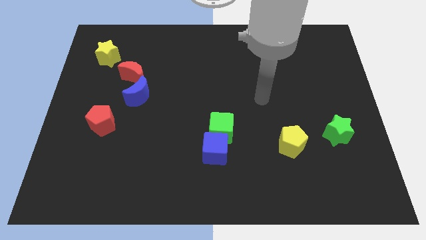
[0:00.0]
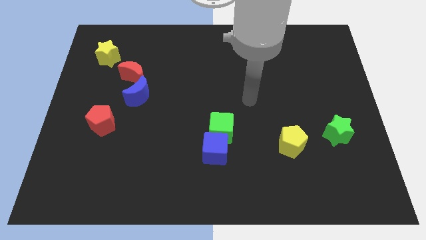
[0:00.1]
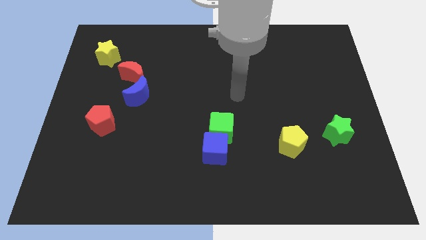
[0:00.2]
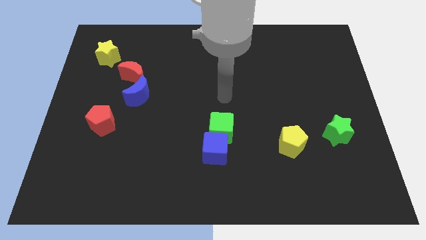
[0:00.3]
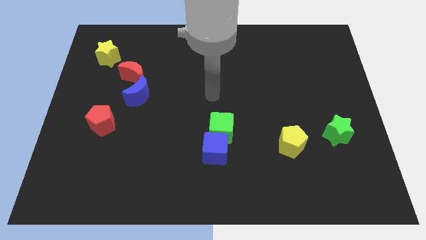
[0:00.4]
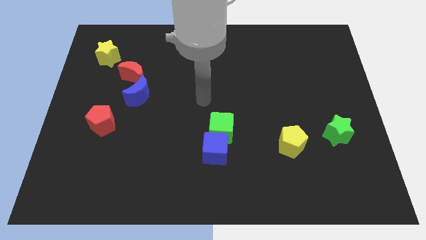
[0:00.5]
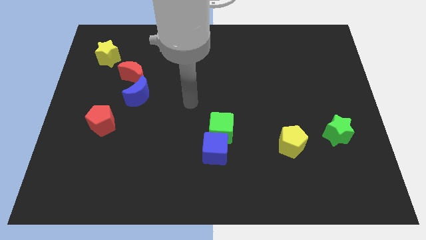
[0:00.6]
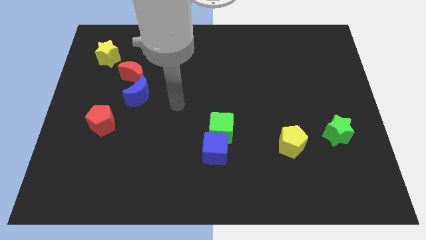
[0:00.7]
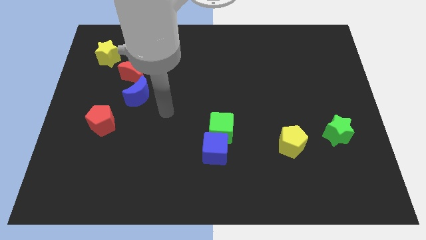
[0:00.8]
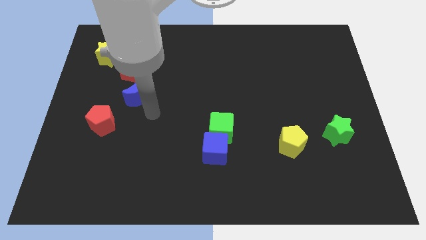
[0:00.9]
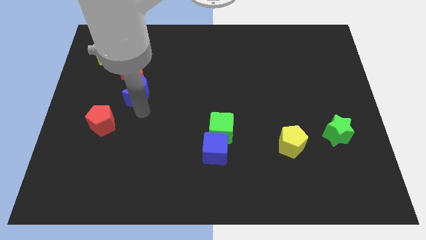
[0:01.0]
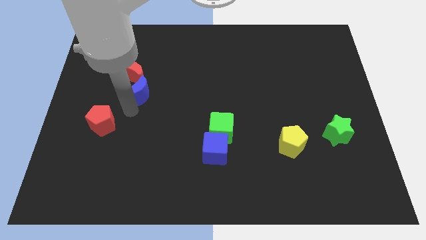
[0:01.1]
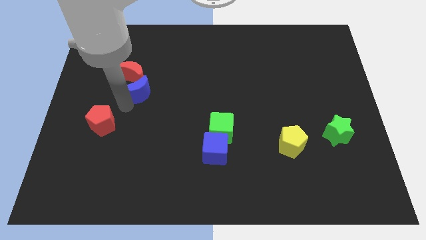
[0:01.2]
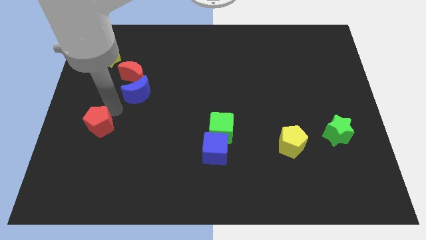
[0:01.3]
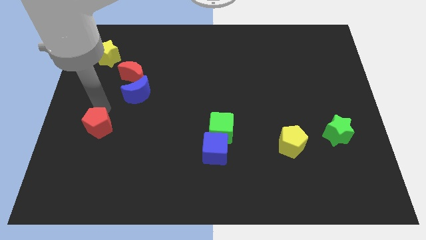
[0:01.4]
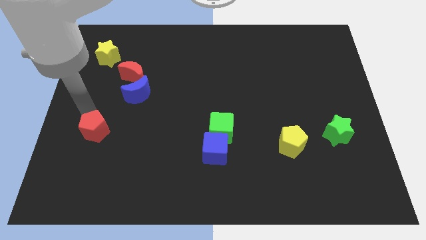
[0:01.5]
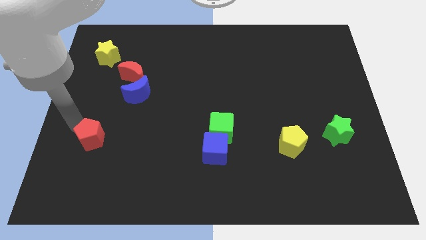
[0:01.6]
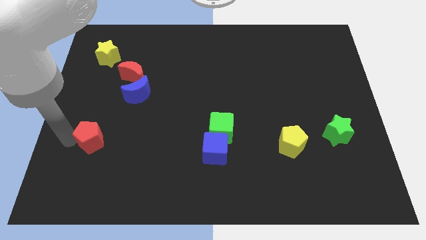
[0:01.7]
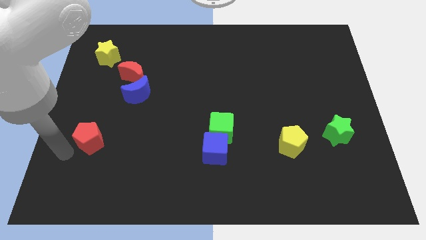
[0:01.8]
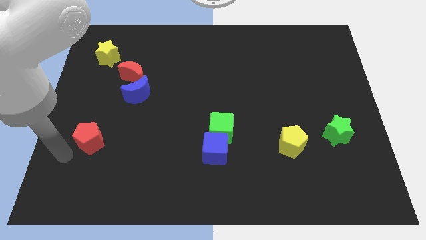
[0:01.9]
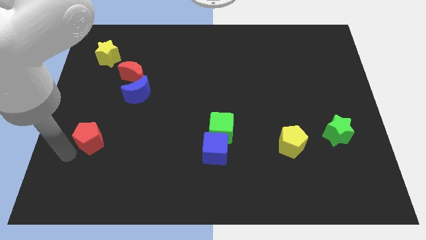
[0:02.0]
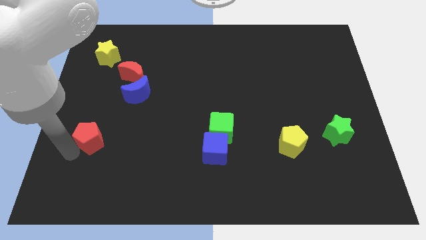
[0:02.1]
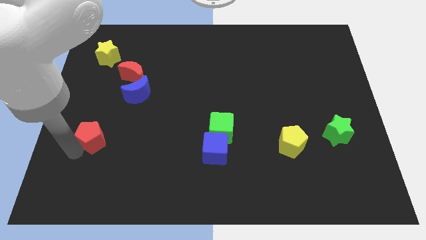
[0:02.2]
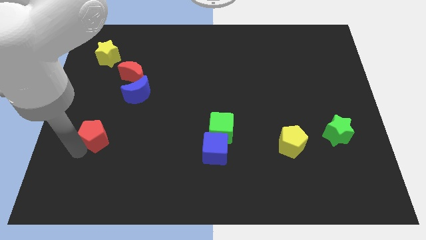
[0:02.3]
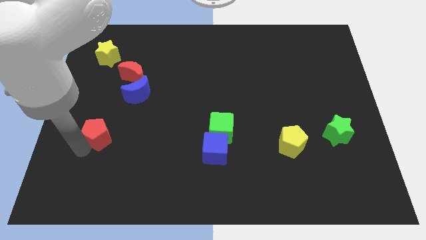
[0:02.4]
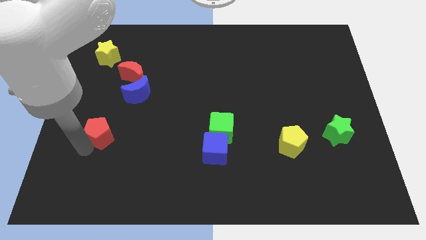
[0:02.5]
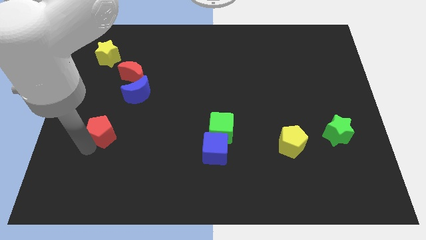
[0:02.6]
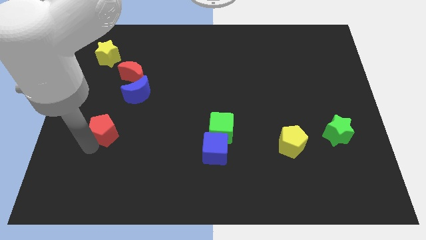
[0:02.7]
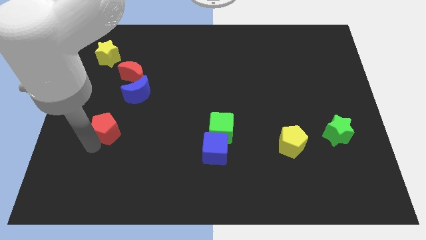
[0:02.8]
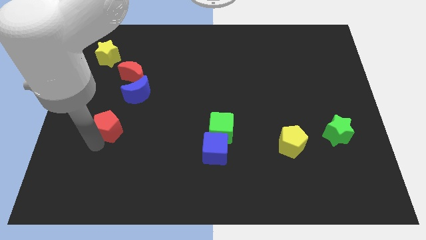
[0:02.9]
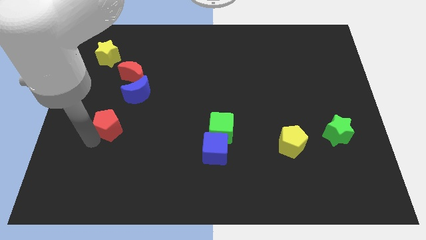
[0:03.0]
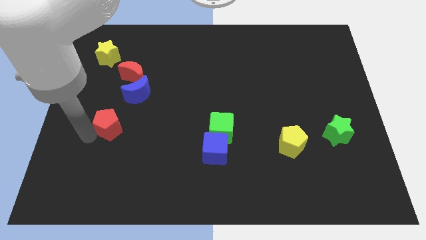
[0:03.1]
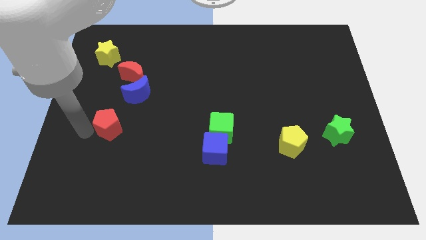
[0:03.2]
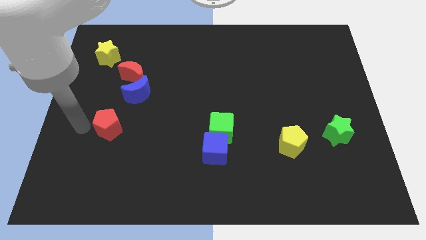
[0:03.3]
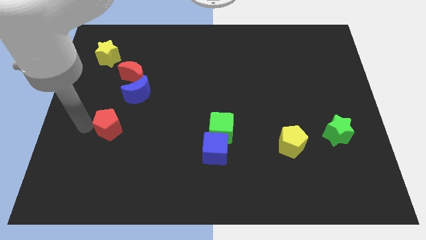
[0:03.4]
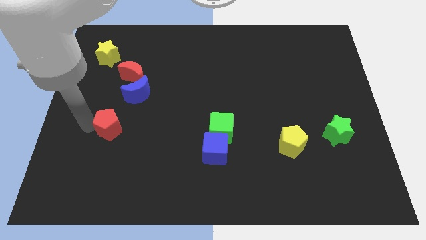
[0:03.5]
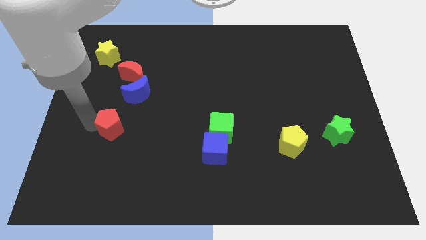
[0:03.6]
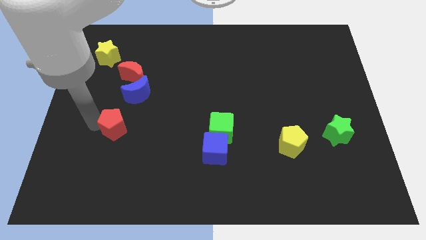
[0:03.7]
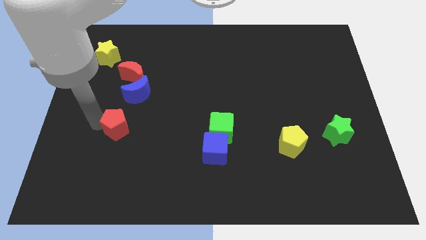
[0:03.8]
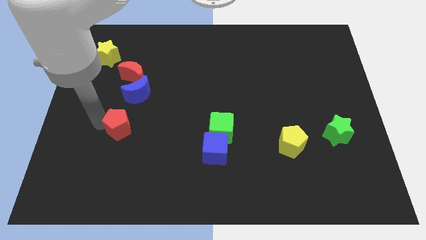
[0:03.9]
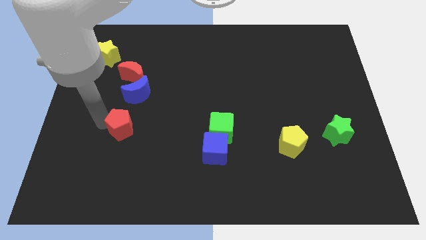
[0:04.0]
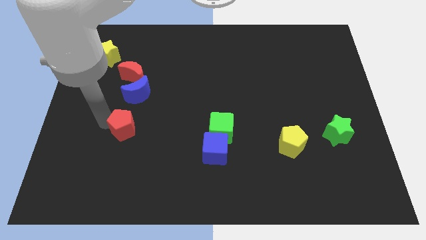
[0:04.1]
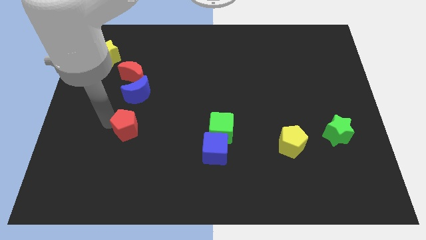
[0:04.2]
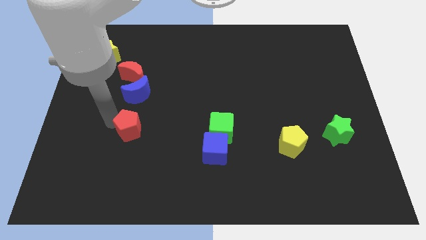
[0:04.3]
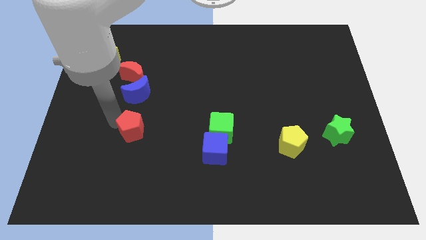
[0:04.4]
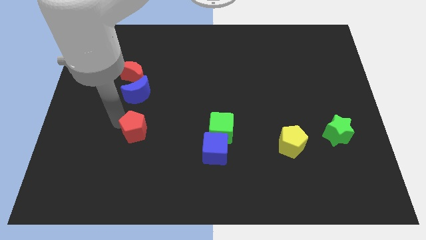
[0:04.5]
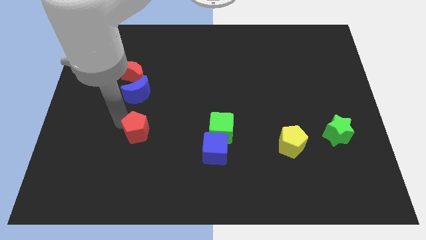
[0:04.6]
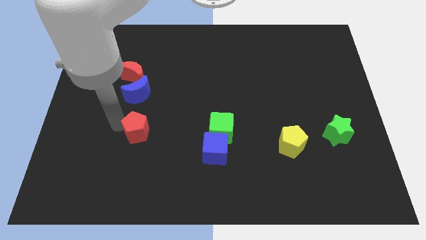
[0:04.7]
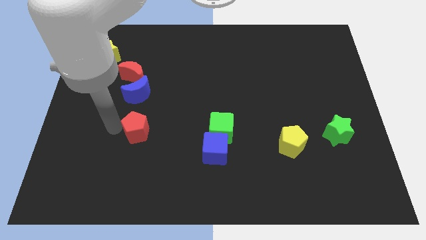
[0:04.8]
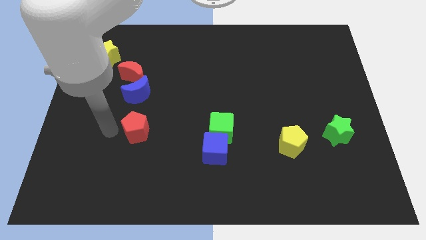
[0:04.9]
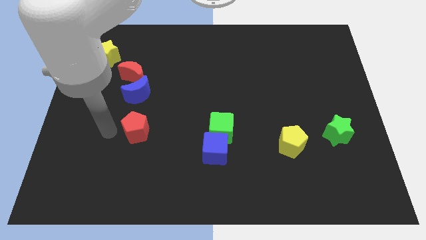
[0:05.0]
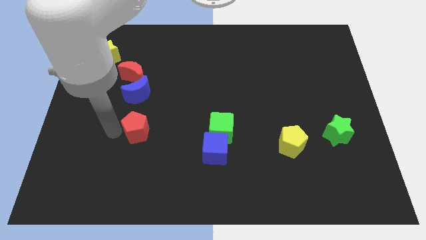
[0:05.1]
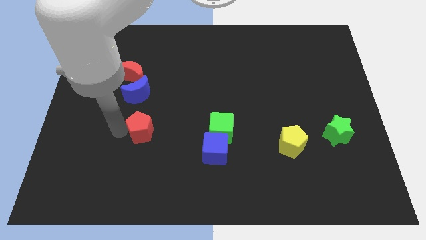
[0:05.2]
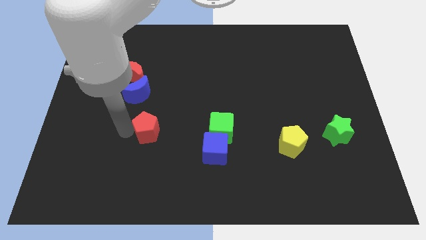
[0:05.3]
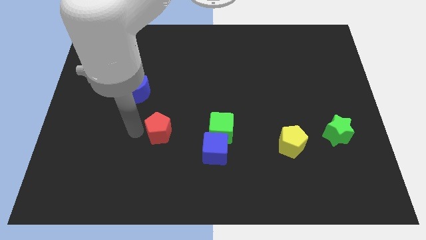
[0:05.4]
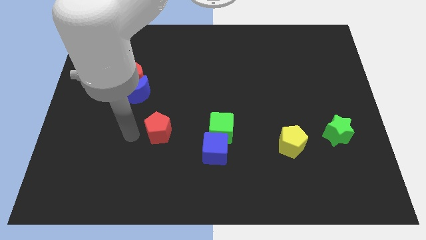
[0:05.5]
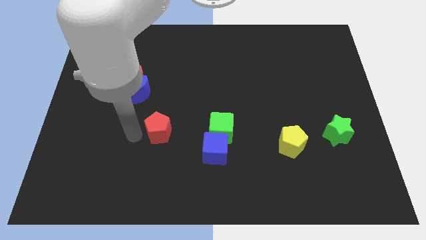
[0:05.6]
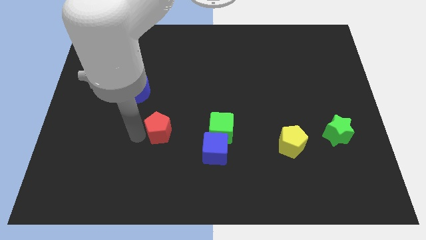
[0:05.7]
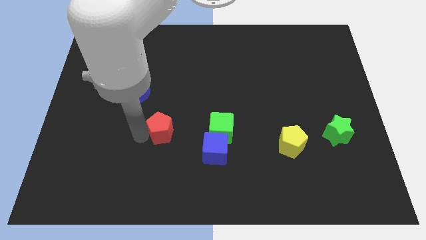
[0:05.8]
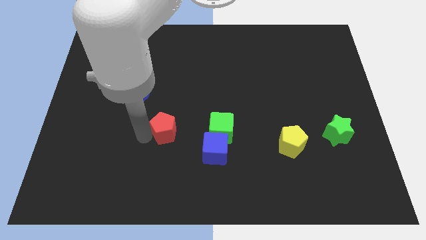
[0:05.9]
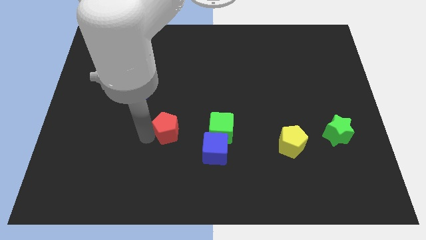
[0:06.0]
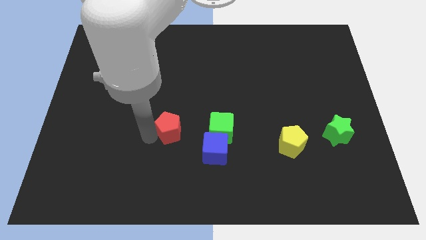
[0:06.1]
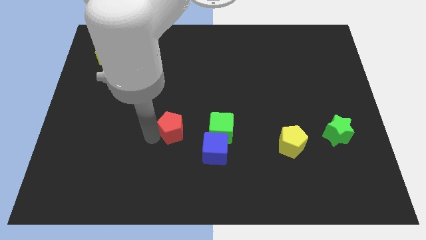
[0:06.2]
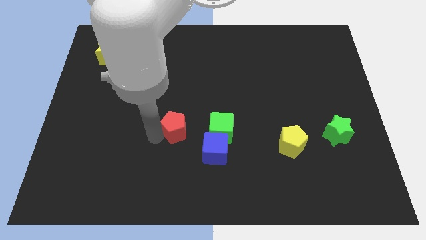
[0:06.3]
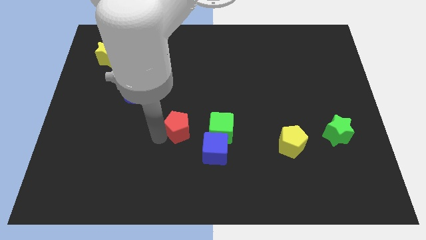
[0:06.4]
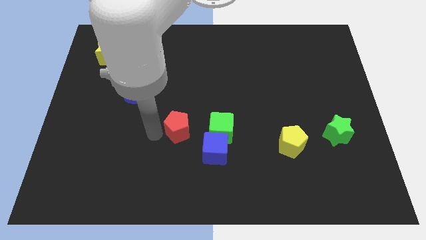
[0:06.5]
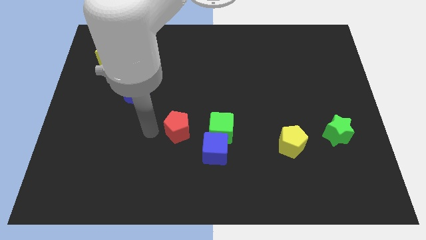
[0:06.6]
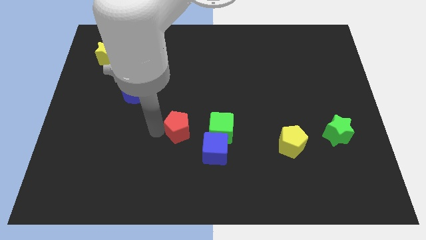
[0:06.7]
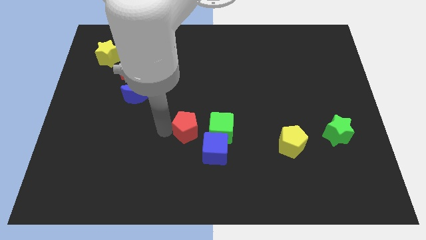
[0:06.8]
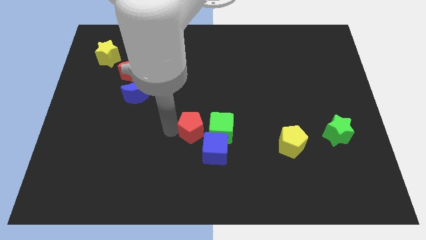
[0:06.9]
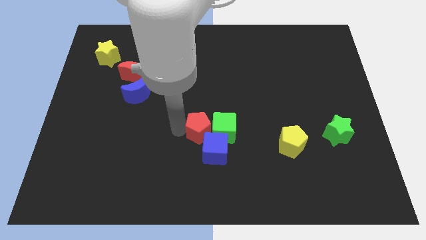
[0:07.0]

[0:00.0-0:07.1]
move the red pentagon next to the green cube

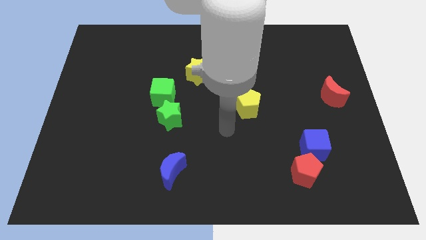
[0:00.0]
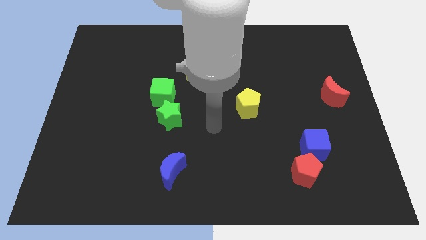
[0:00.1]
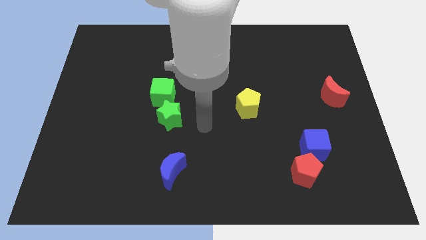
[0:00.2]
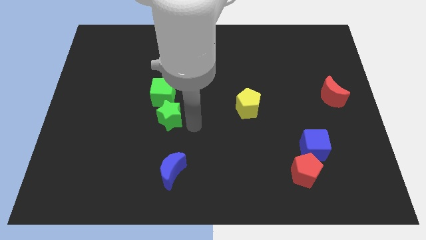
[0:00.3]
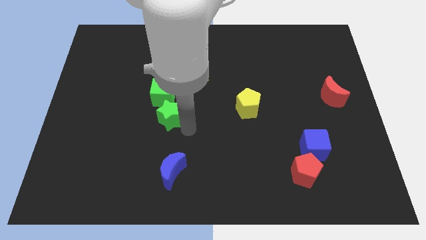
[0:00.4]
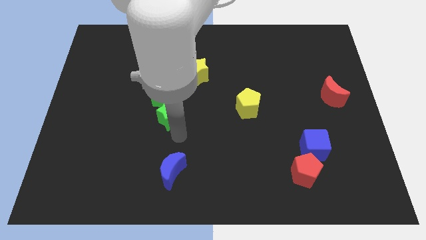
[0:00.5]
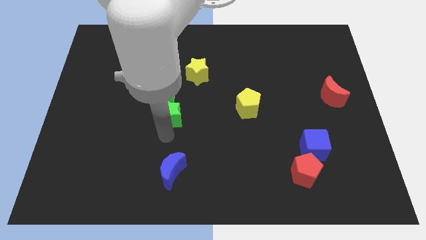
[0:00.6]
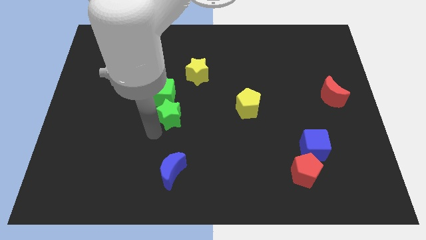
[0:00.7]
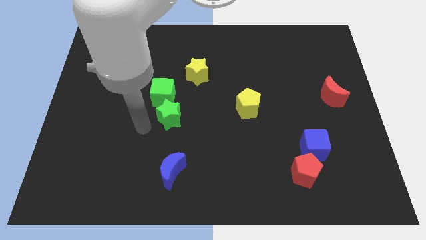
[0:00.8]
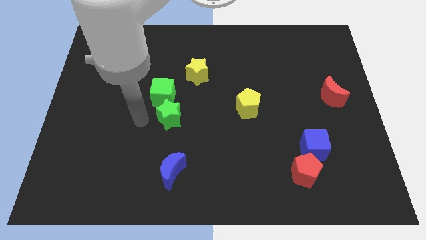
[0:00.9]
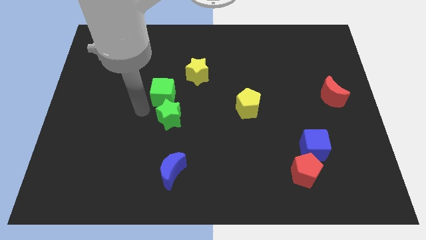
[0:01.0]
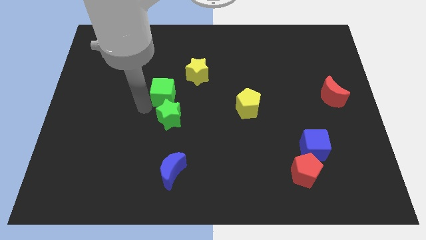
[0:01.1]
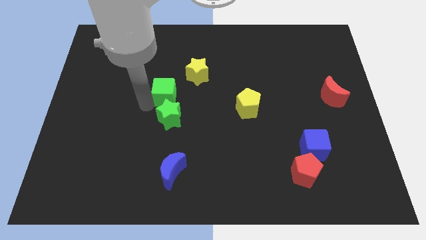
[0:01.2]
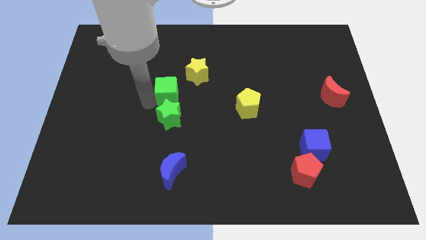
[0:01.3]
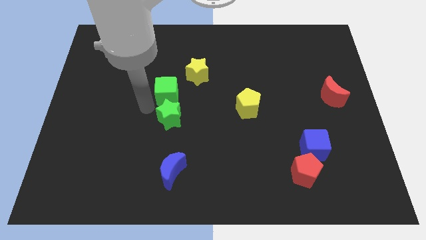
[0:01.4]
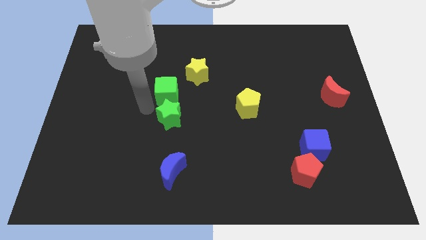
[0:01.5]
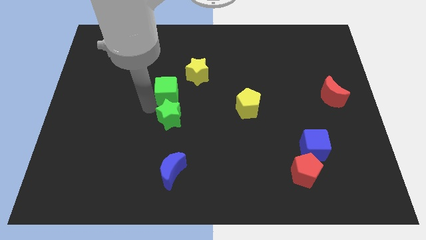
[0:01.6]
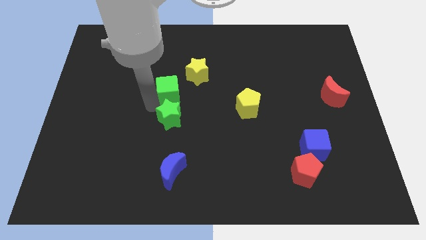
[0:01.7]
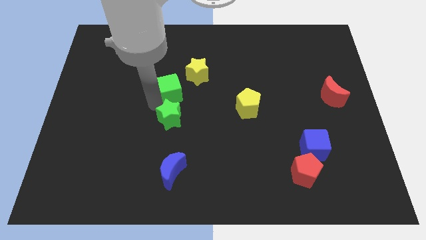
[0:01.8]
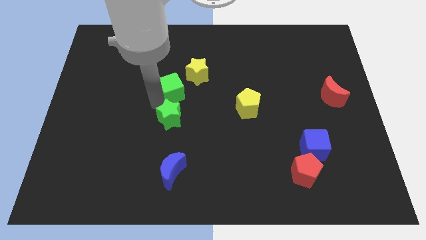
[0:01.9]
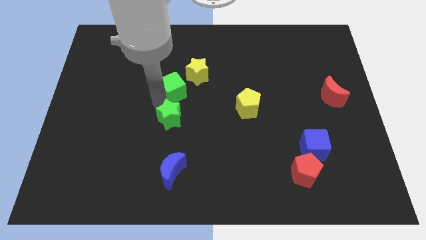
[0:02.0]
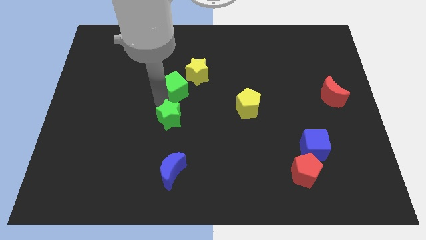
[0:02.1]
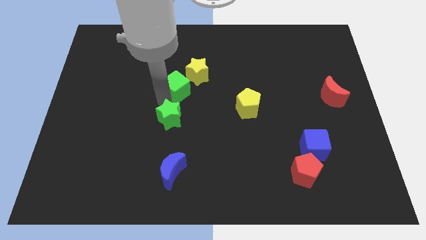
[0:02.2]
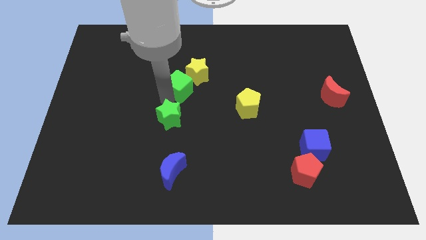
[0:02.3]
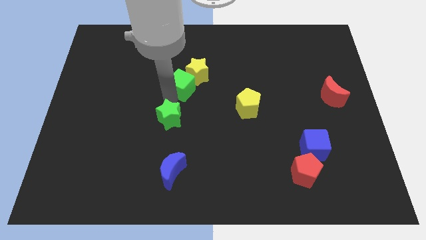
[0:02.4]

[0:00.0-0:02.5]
push the green cube next to the yellow star
